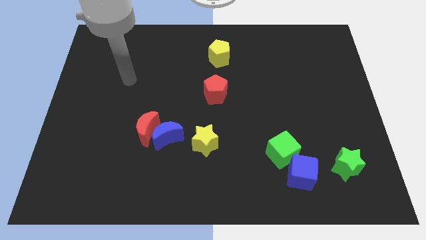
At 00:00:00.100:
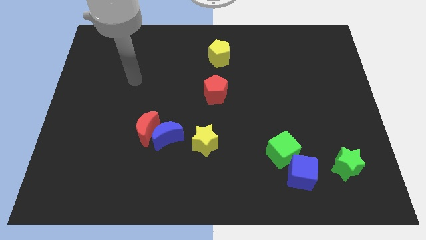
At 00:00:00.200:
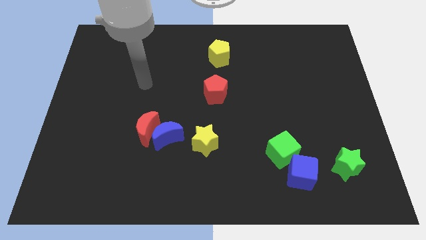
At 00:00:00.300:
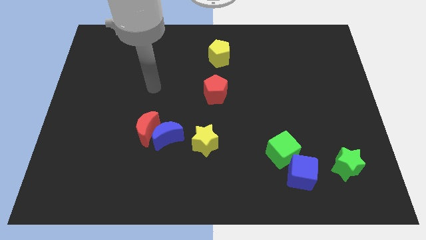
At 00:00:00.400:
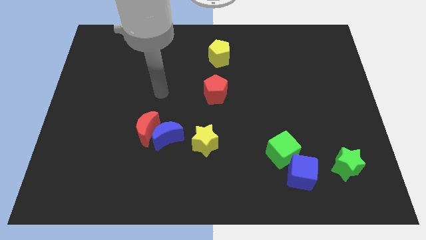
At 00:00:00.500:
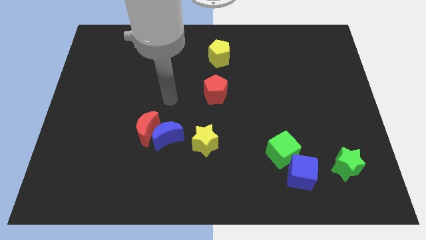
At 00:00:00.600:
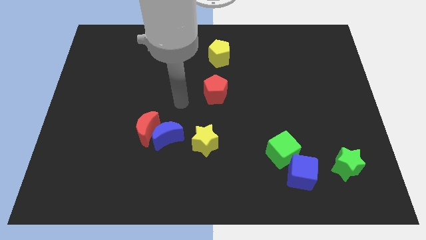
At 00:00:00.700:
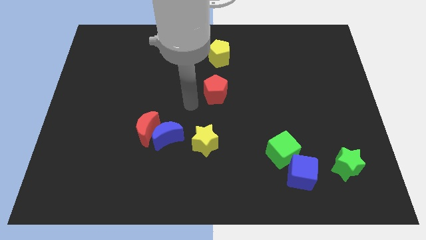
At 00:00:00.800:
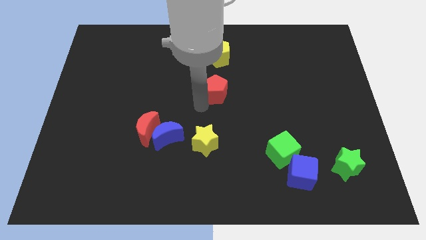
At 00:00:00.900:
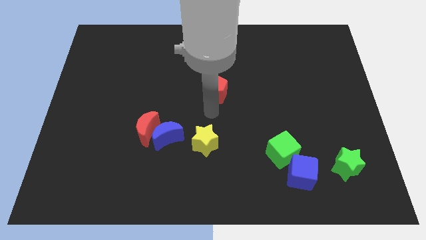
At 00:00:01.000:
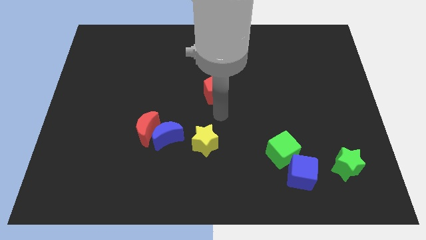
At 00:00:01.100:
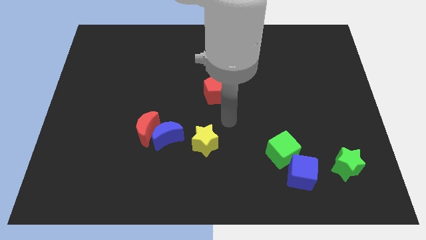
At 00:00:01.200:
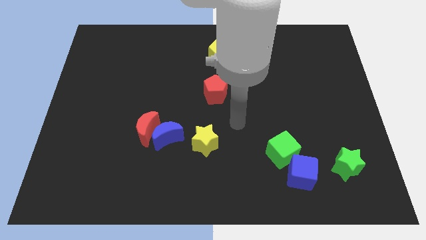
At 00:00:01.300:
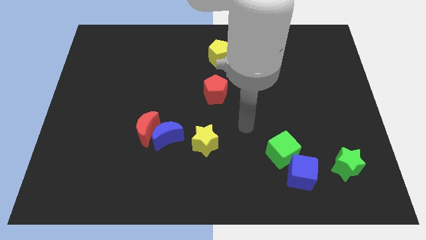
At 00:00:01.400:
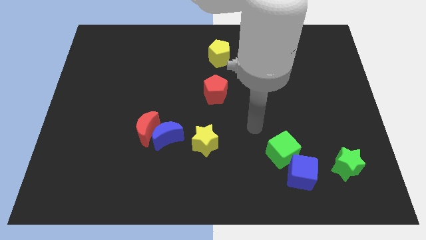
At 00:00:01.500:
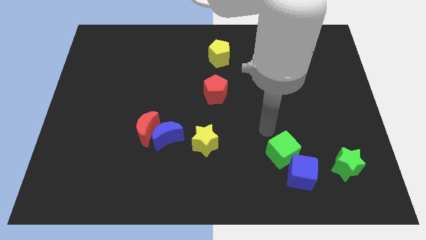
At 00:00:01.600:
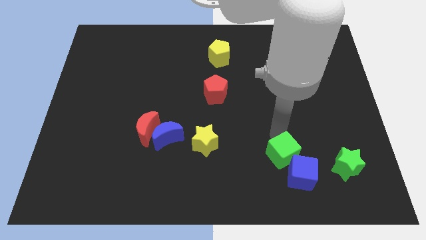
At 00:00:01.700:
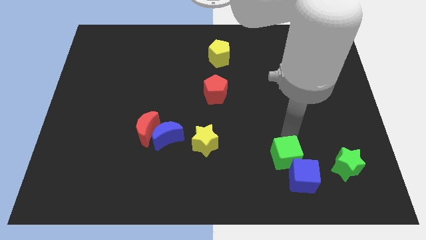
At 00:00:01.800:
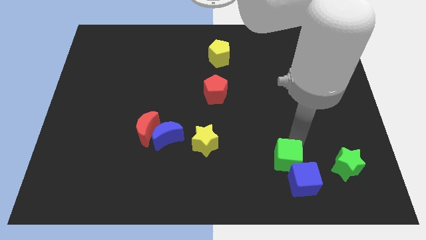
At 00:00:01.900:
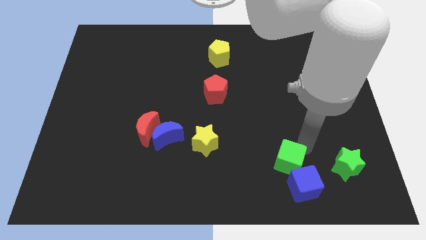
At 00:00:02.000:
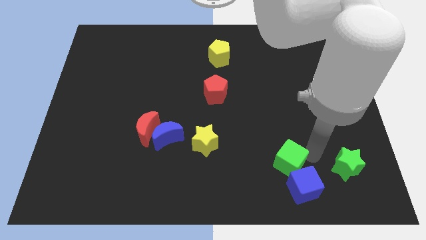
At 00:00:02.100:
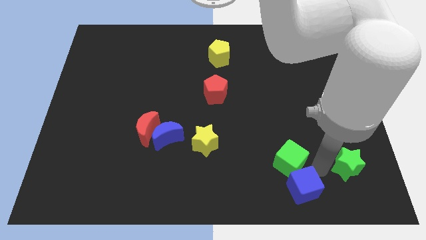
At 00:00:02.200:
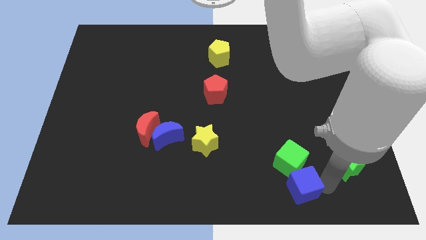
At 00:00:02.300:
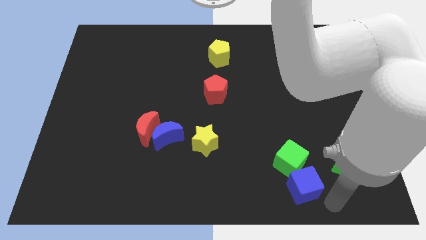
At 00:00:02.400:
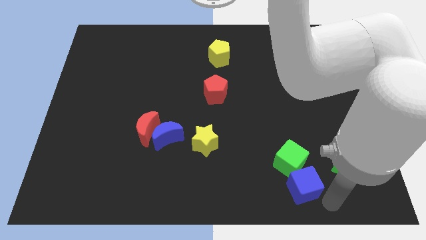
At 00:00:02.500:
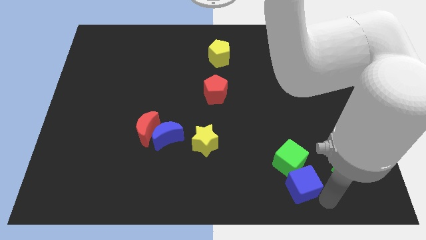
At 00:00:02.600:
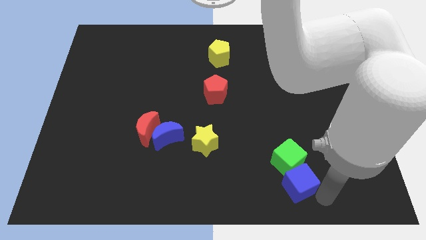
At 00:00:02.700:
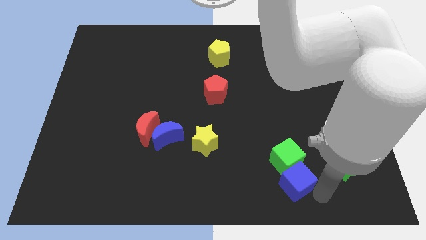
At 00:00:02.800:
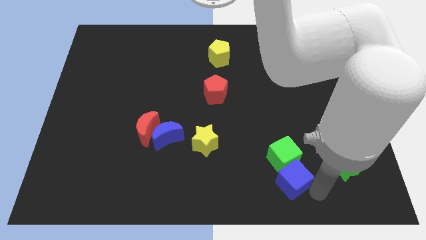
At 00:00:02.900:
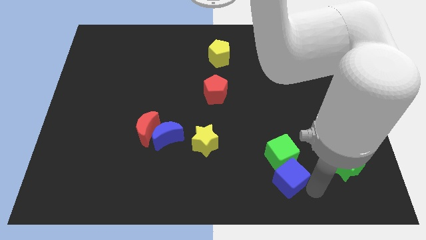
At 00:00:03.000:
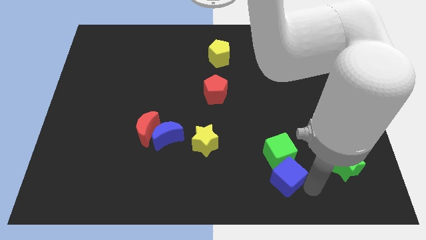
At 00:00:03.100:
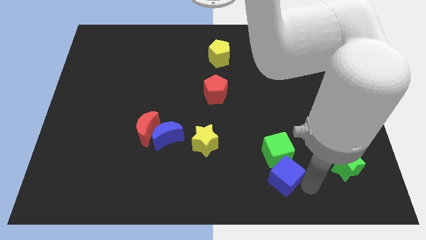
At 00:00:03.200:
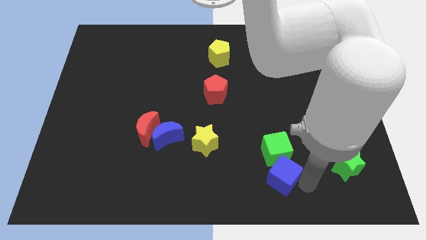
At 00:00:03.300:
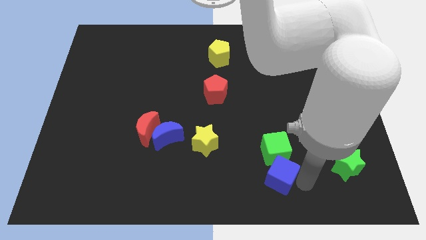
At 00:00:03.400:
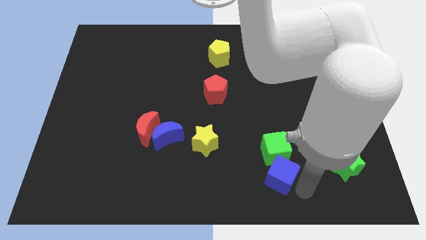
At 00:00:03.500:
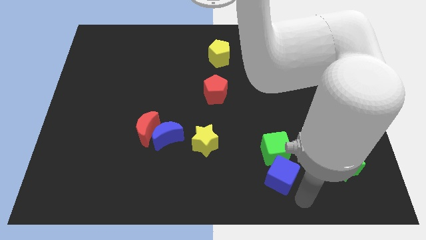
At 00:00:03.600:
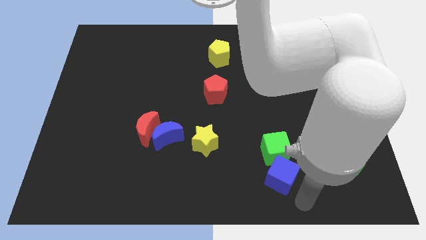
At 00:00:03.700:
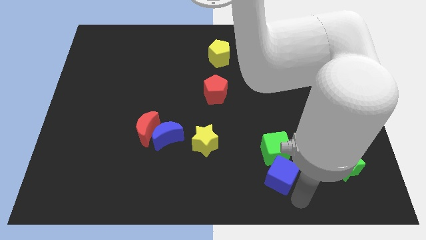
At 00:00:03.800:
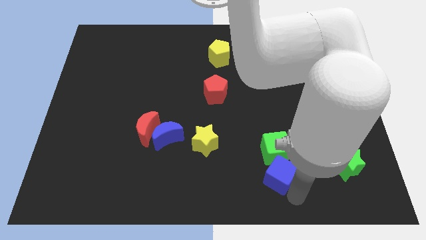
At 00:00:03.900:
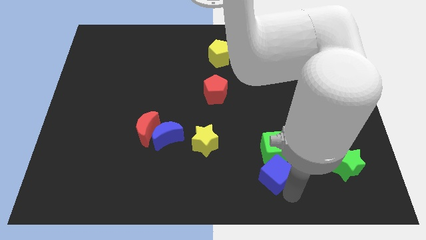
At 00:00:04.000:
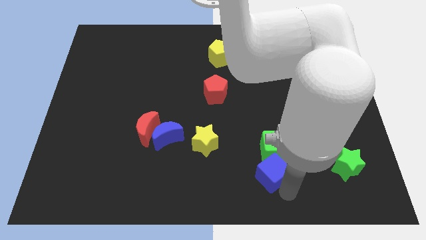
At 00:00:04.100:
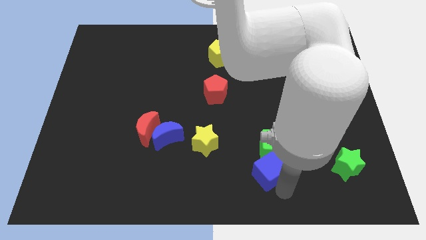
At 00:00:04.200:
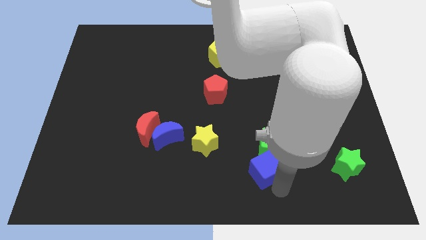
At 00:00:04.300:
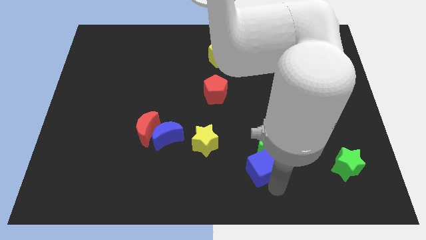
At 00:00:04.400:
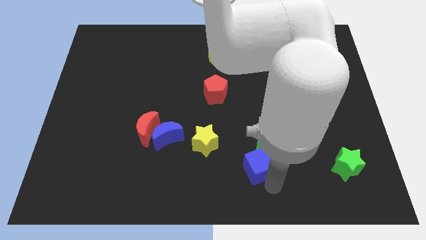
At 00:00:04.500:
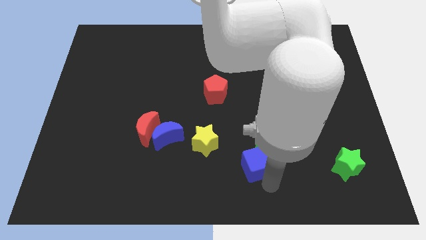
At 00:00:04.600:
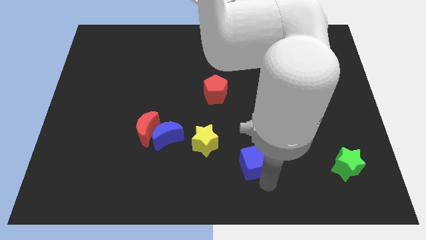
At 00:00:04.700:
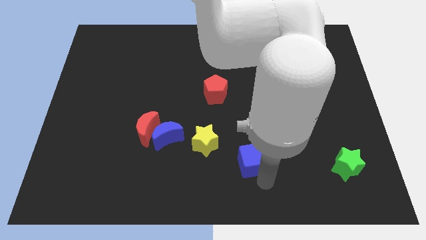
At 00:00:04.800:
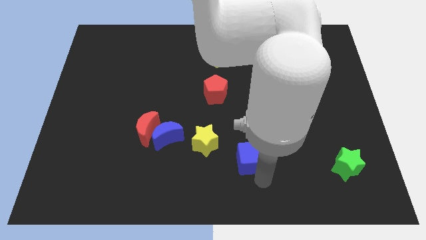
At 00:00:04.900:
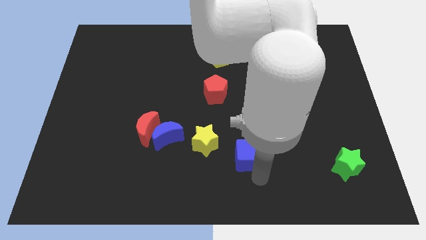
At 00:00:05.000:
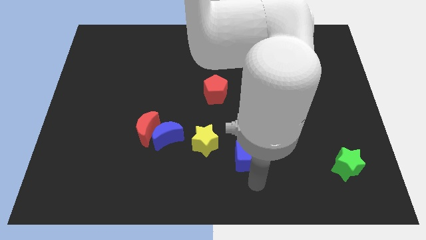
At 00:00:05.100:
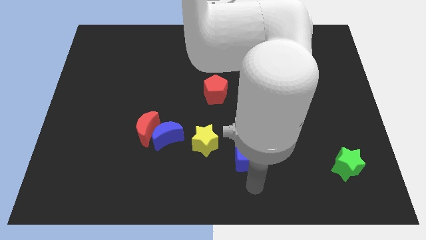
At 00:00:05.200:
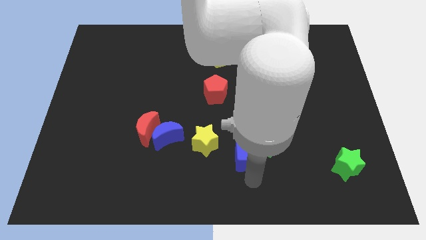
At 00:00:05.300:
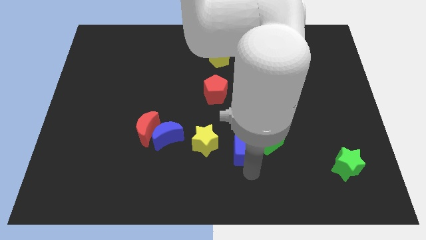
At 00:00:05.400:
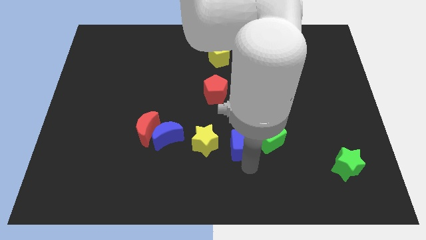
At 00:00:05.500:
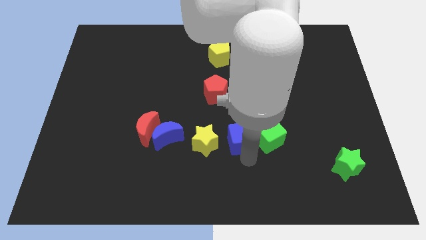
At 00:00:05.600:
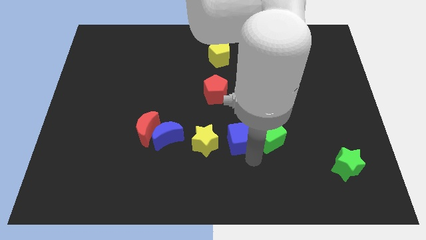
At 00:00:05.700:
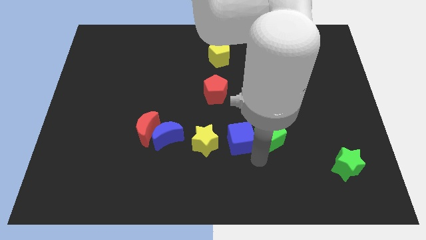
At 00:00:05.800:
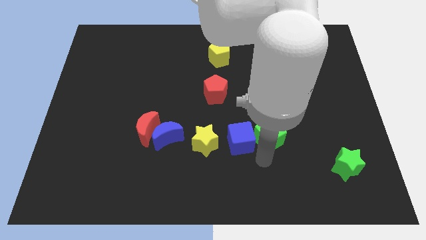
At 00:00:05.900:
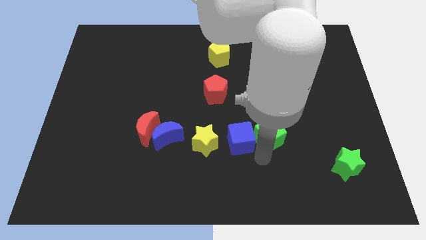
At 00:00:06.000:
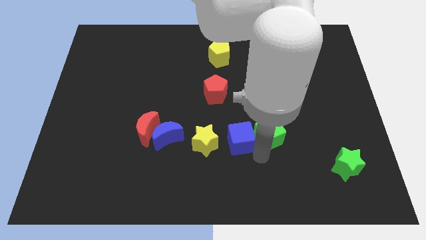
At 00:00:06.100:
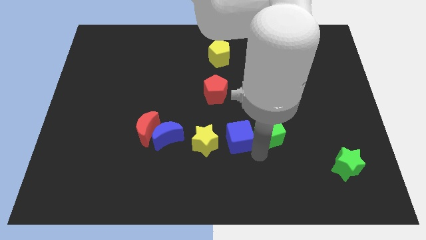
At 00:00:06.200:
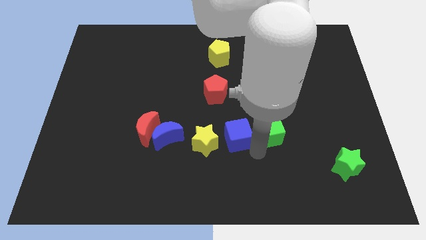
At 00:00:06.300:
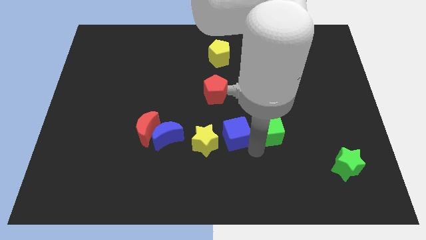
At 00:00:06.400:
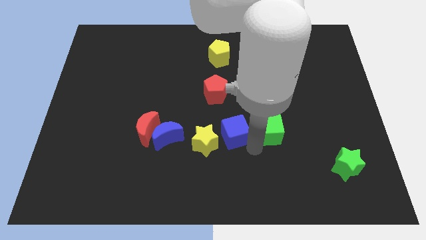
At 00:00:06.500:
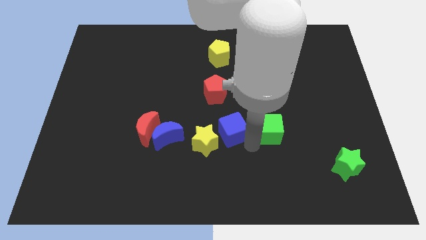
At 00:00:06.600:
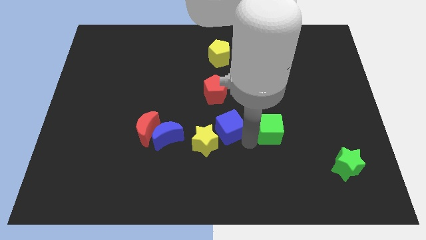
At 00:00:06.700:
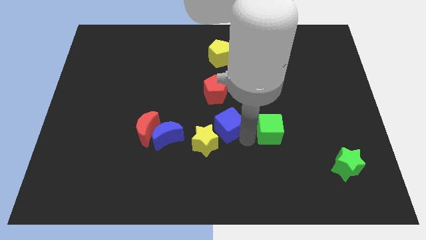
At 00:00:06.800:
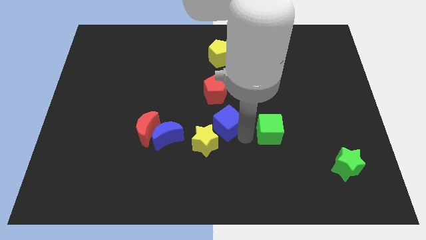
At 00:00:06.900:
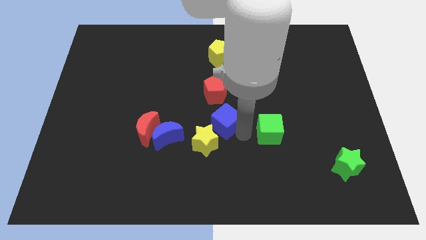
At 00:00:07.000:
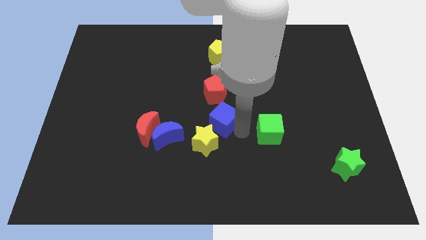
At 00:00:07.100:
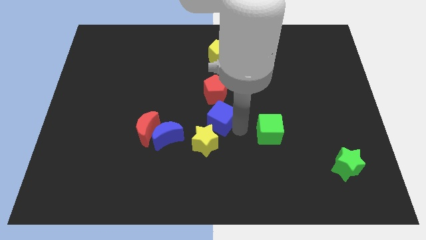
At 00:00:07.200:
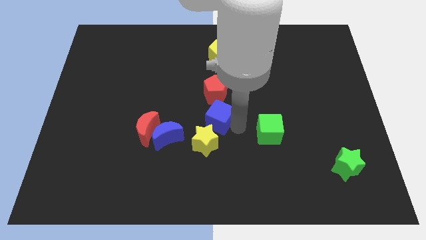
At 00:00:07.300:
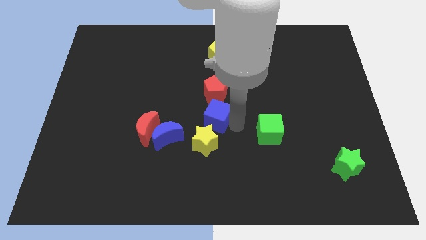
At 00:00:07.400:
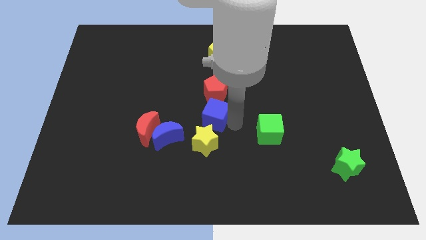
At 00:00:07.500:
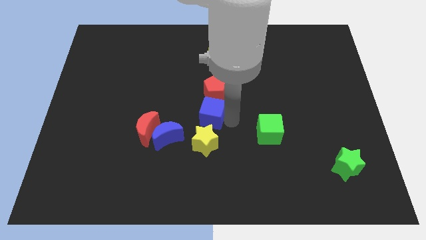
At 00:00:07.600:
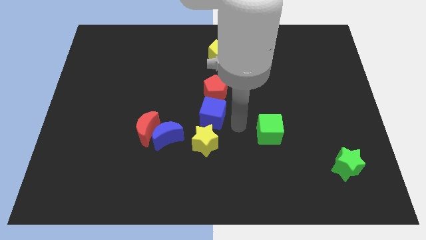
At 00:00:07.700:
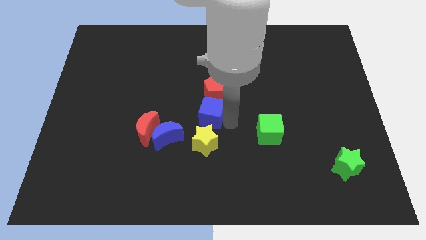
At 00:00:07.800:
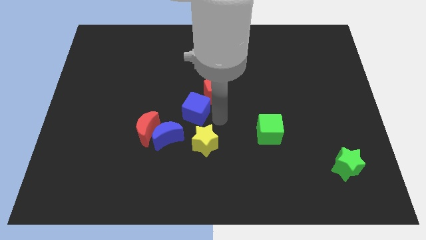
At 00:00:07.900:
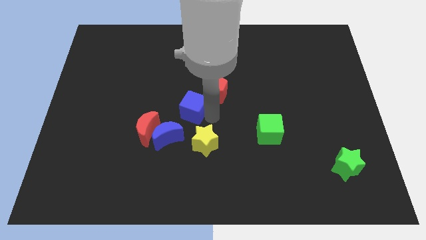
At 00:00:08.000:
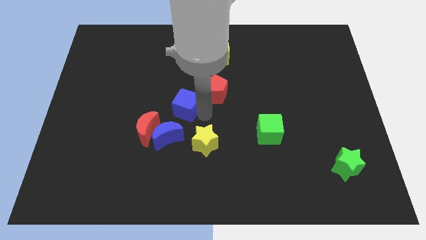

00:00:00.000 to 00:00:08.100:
move the blue cube above the blue moon
